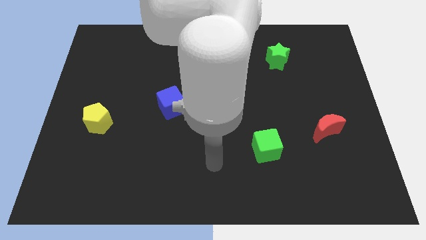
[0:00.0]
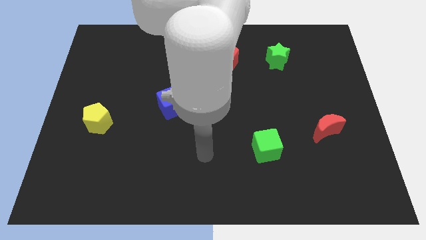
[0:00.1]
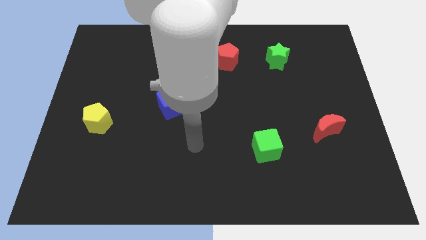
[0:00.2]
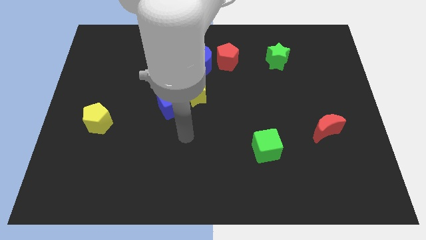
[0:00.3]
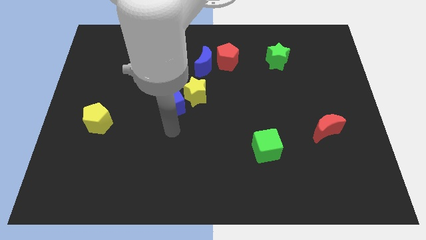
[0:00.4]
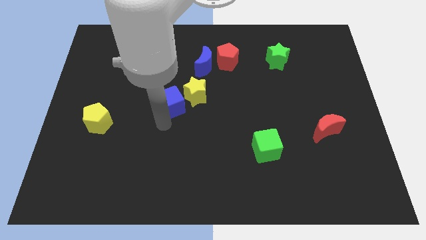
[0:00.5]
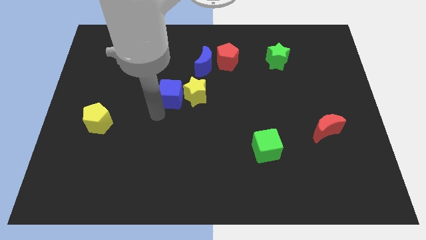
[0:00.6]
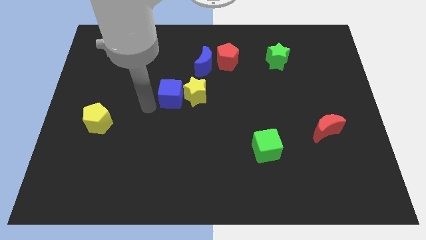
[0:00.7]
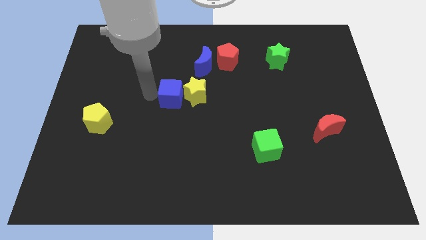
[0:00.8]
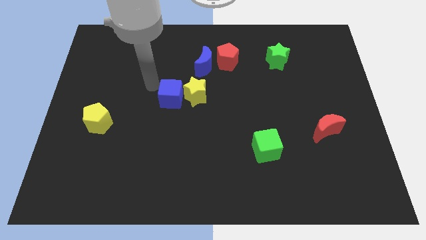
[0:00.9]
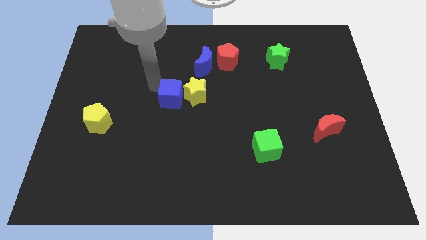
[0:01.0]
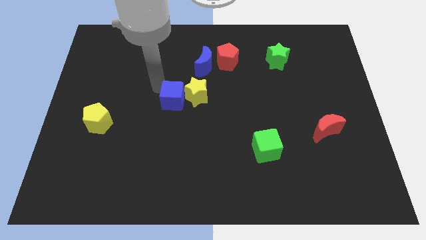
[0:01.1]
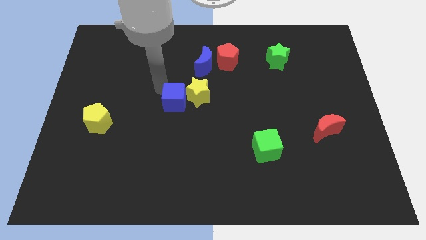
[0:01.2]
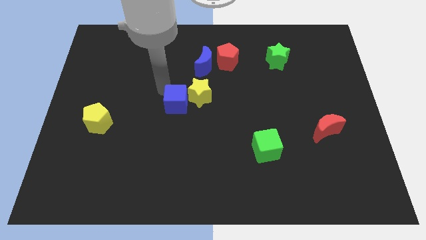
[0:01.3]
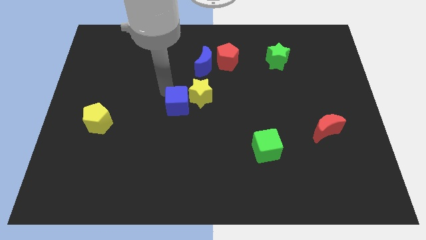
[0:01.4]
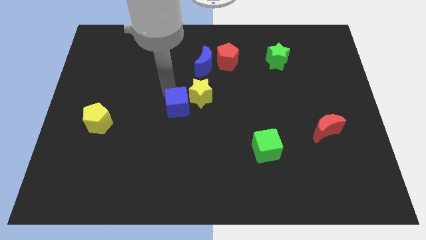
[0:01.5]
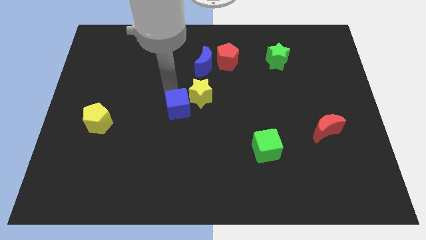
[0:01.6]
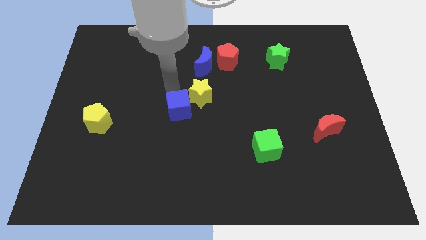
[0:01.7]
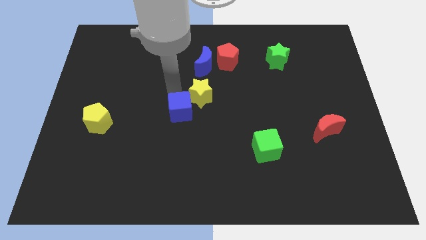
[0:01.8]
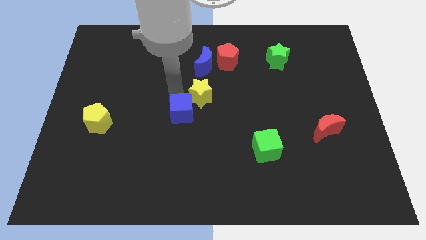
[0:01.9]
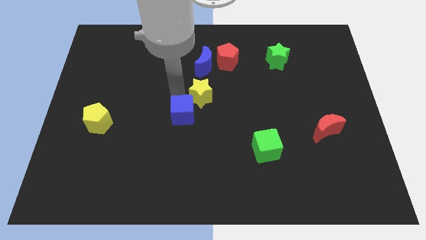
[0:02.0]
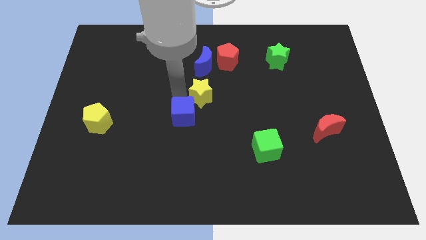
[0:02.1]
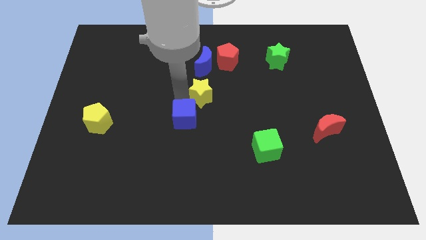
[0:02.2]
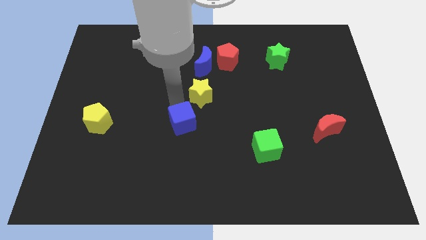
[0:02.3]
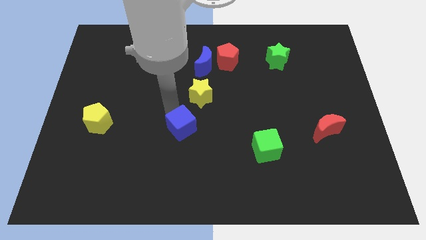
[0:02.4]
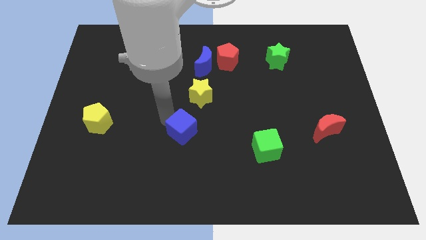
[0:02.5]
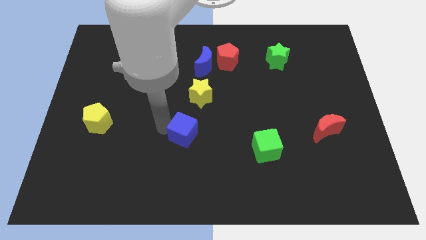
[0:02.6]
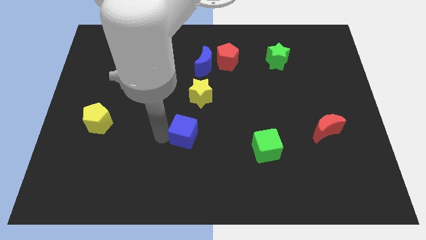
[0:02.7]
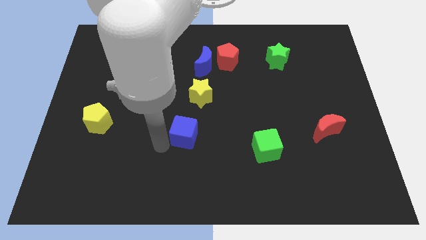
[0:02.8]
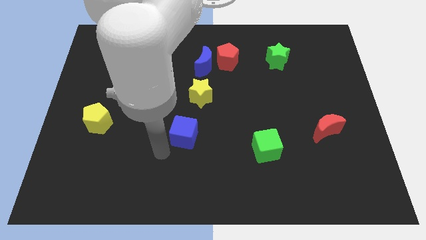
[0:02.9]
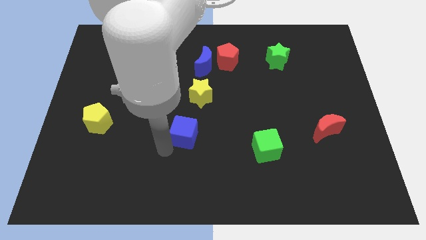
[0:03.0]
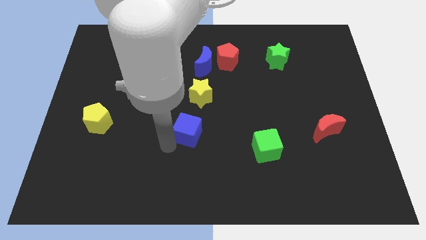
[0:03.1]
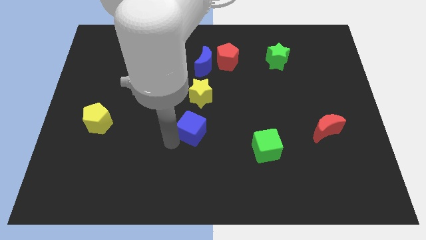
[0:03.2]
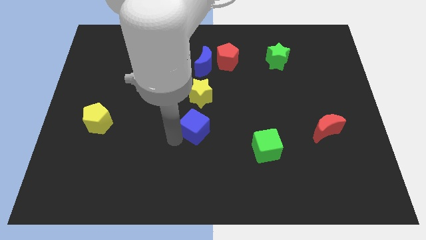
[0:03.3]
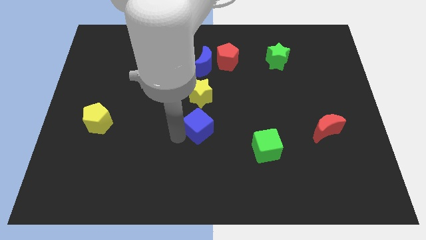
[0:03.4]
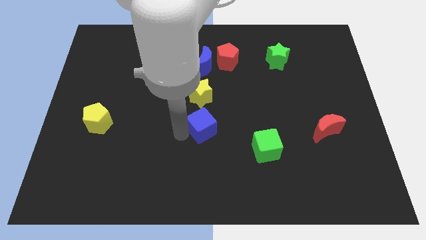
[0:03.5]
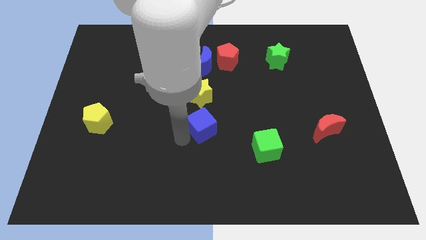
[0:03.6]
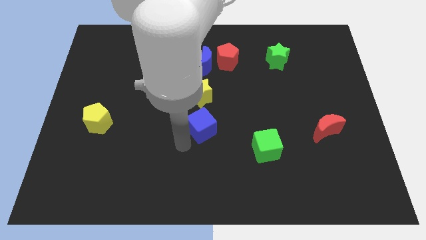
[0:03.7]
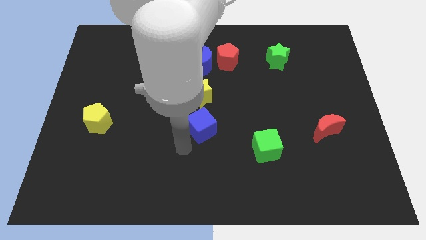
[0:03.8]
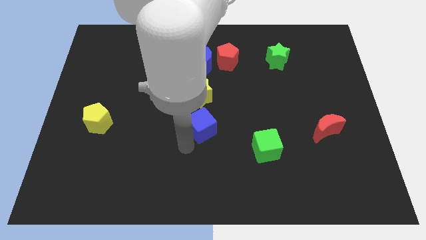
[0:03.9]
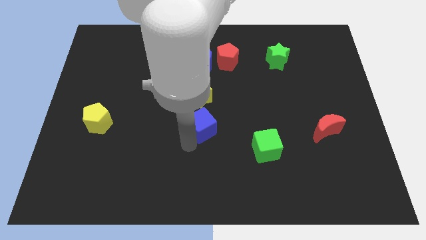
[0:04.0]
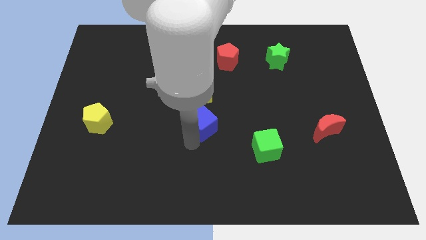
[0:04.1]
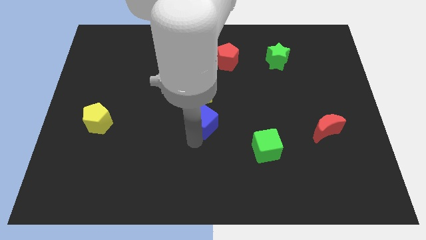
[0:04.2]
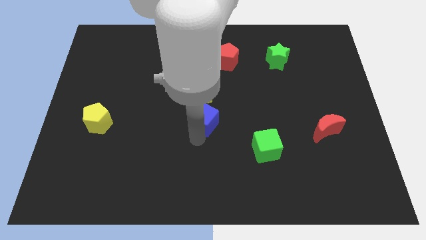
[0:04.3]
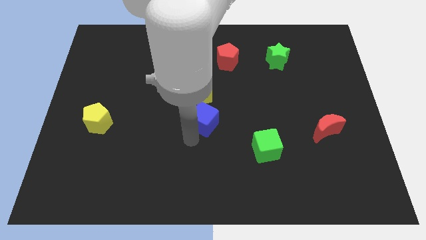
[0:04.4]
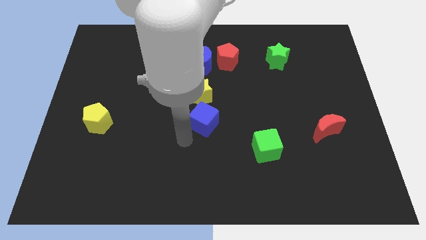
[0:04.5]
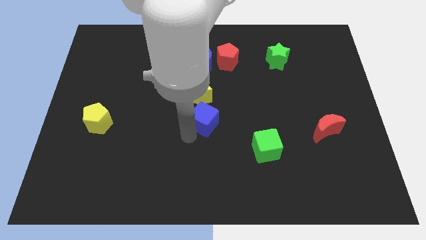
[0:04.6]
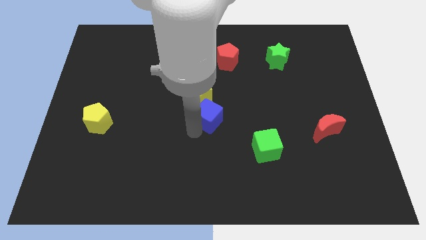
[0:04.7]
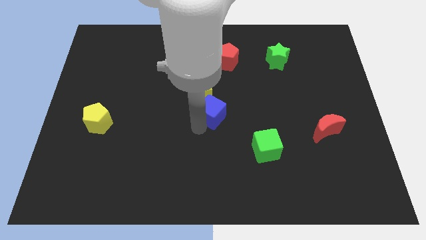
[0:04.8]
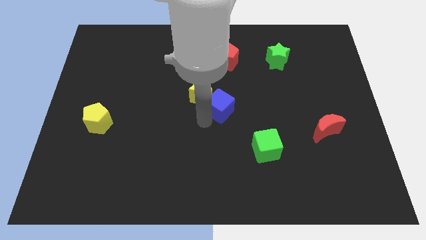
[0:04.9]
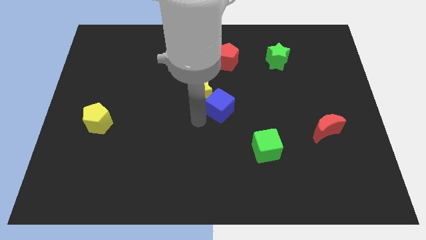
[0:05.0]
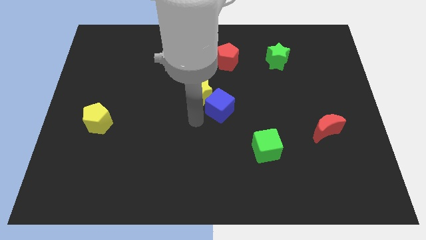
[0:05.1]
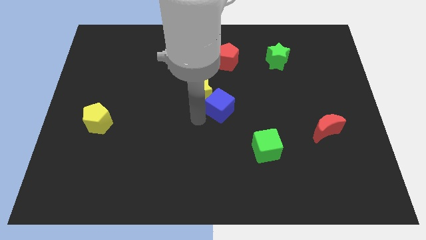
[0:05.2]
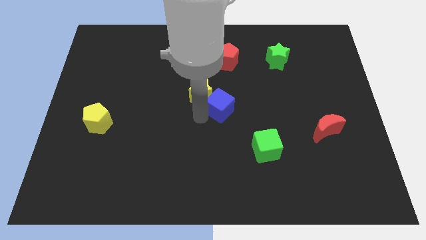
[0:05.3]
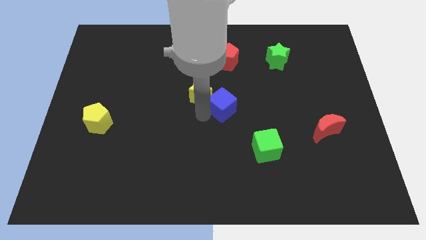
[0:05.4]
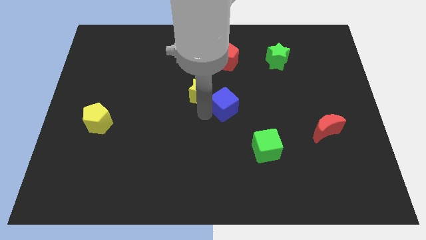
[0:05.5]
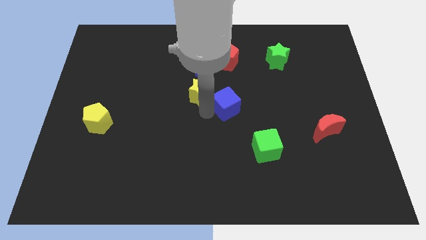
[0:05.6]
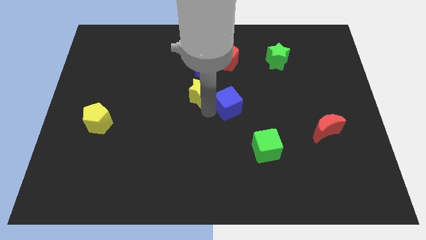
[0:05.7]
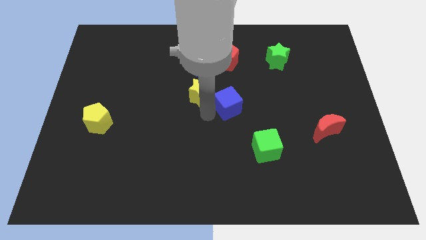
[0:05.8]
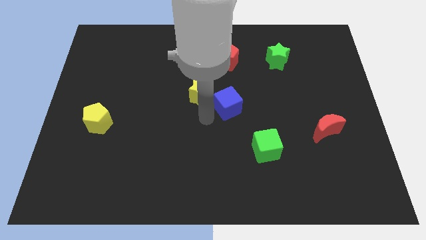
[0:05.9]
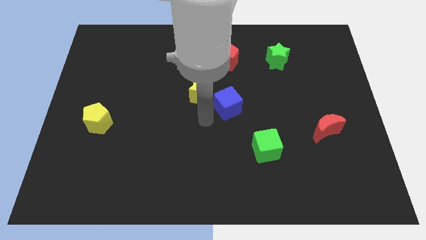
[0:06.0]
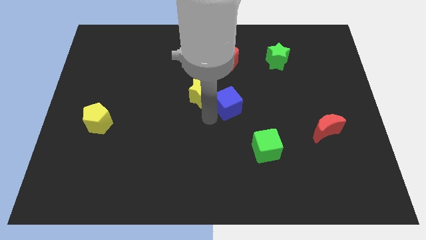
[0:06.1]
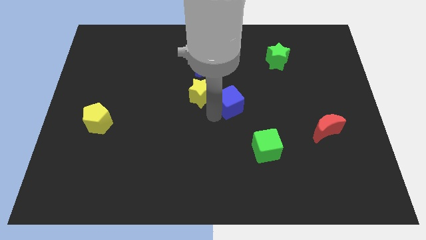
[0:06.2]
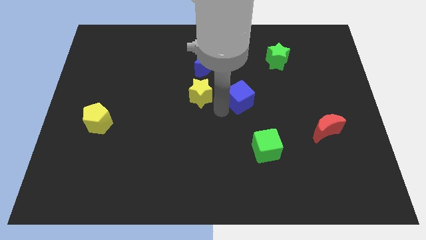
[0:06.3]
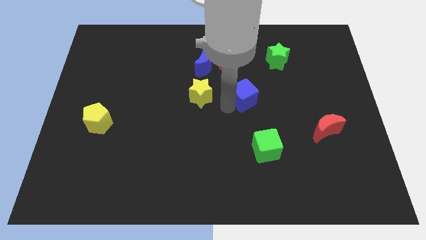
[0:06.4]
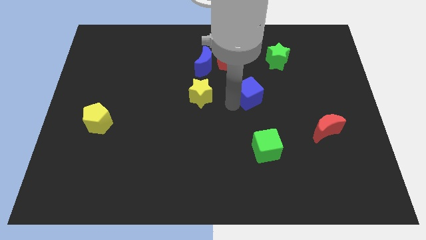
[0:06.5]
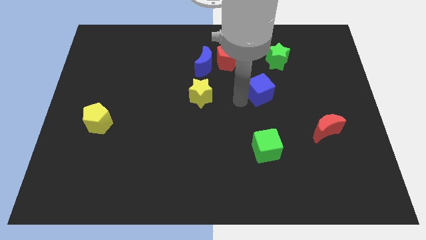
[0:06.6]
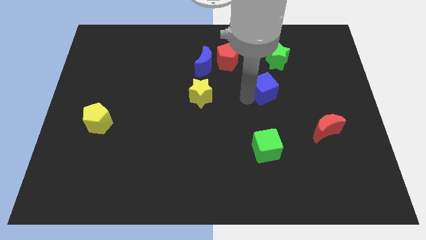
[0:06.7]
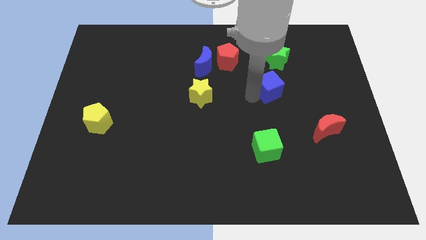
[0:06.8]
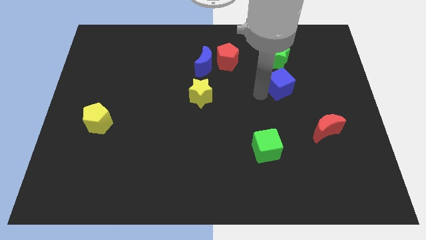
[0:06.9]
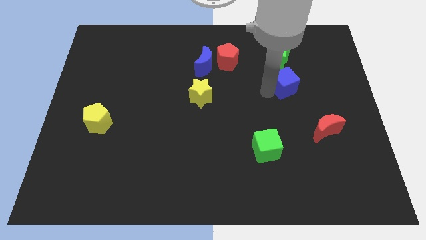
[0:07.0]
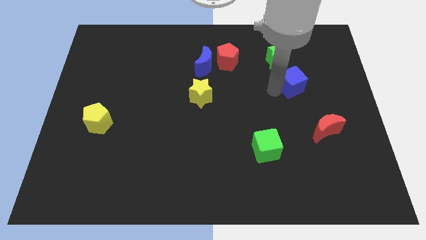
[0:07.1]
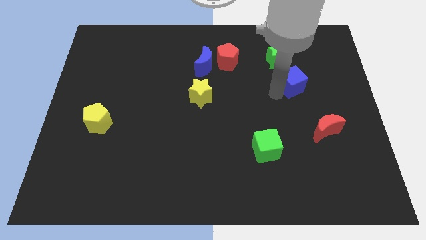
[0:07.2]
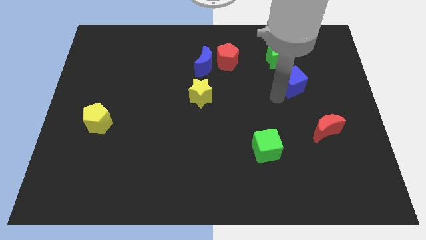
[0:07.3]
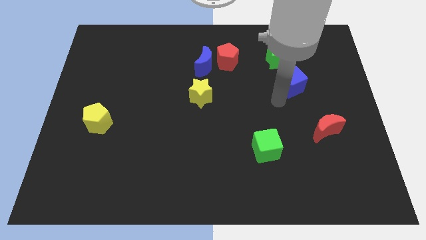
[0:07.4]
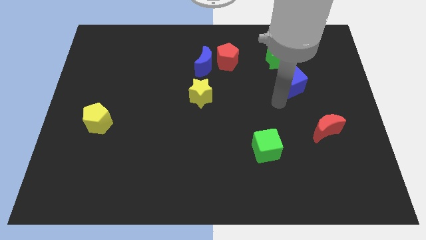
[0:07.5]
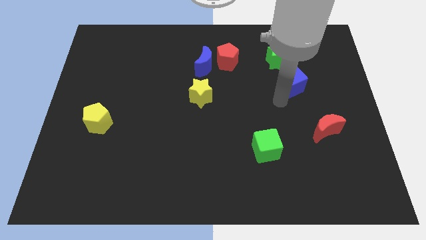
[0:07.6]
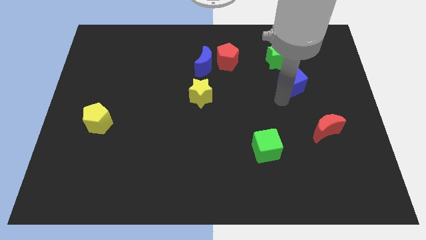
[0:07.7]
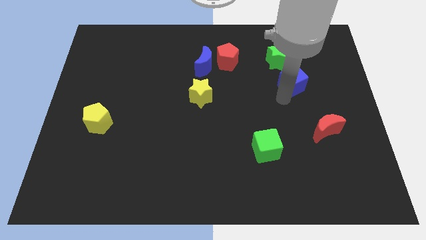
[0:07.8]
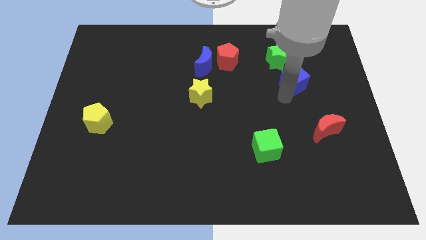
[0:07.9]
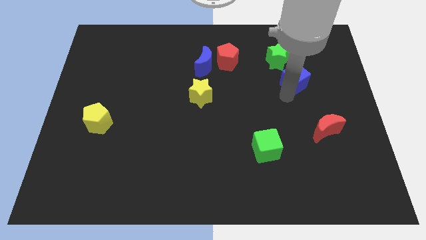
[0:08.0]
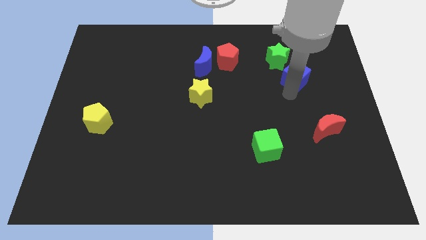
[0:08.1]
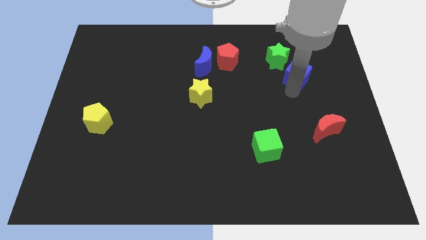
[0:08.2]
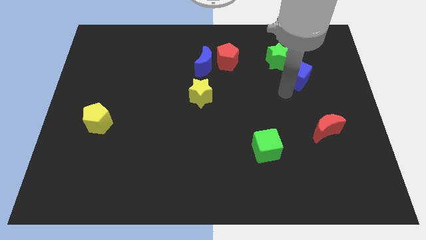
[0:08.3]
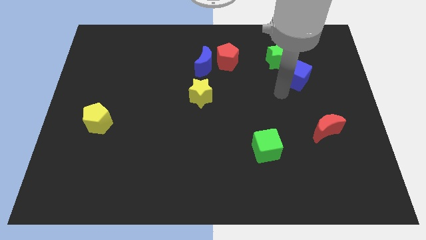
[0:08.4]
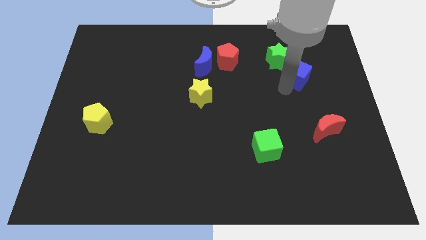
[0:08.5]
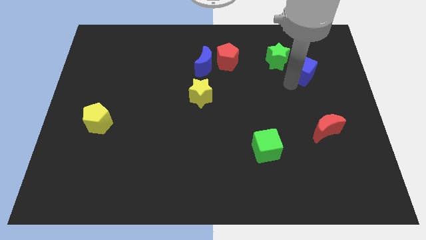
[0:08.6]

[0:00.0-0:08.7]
move the blue cube right of the green star
